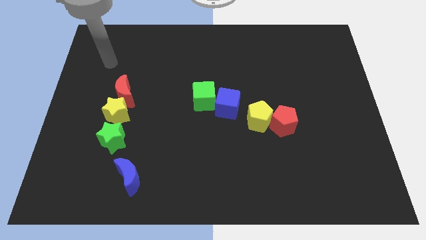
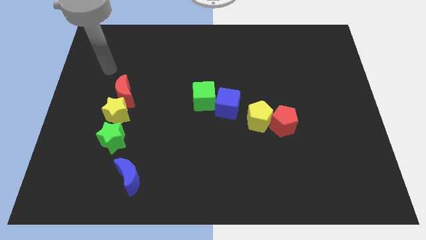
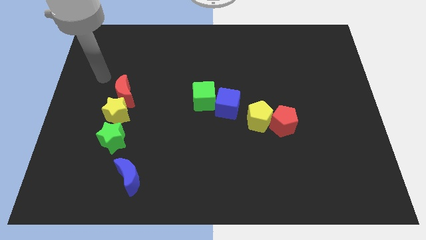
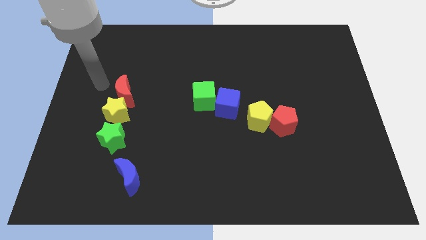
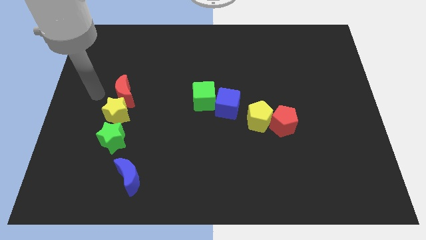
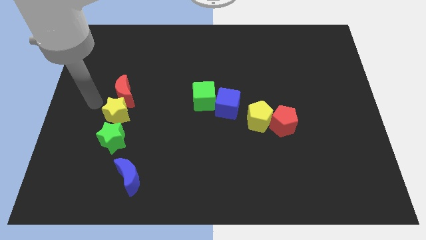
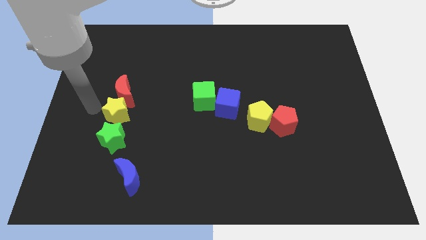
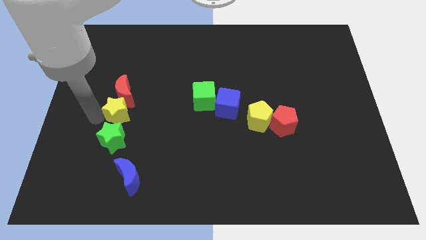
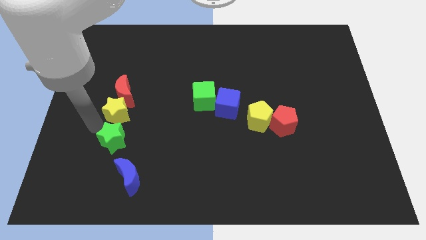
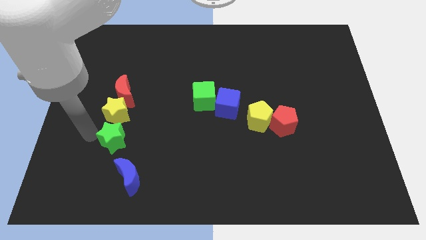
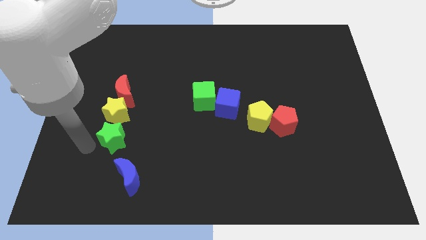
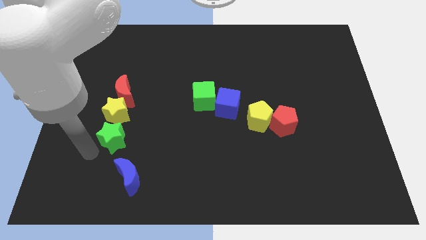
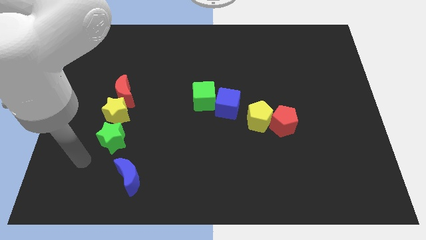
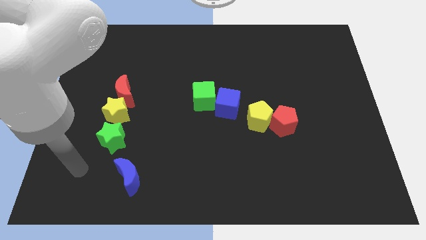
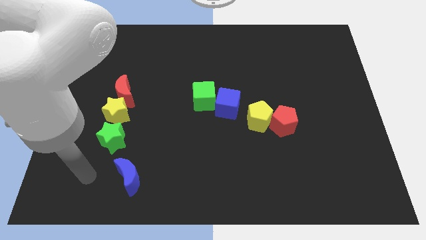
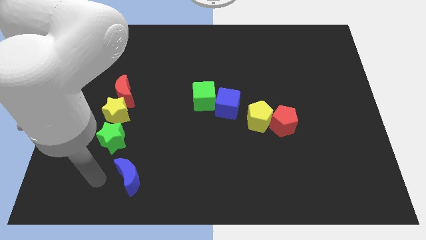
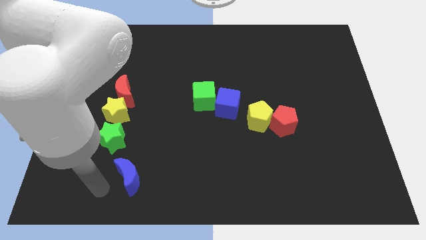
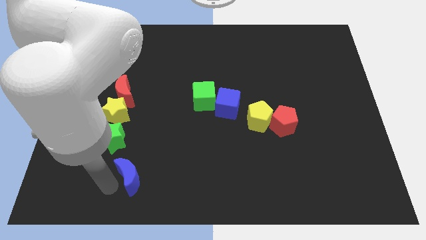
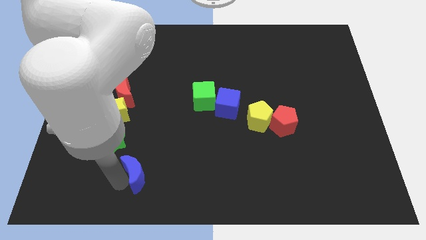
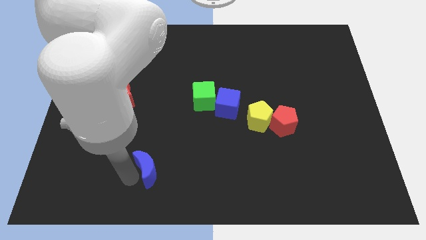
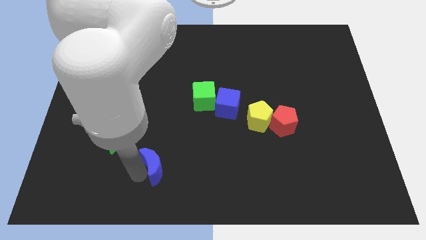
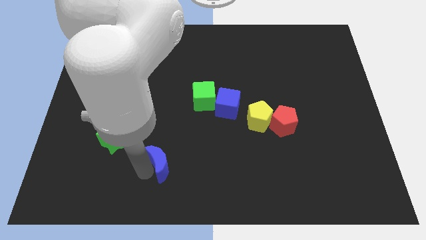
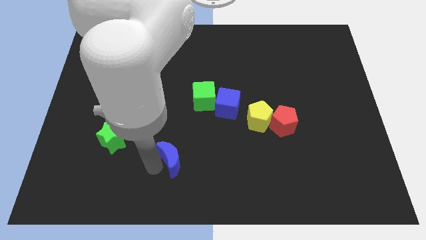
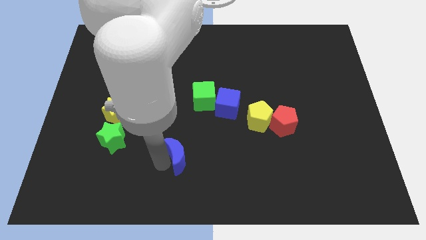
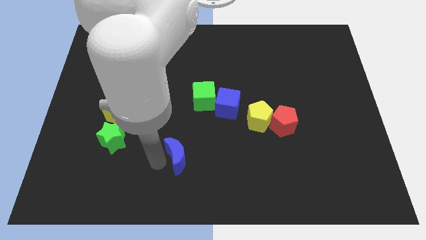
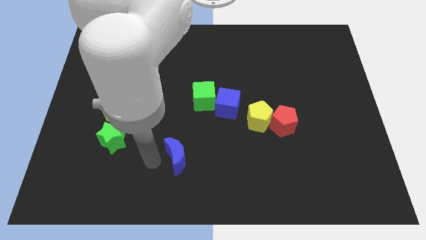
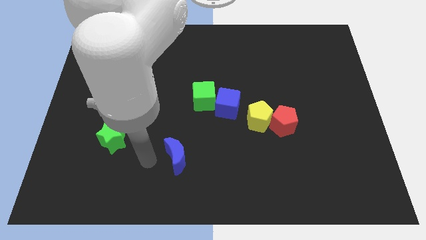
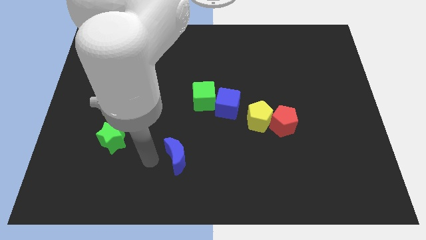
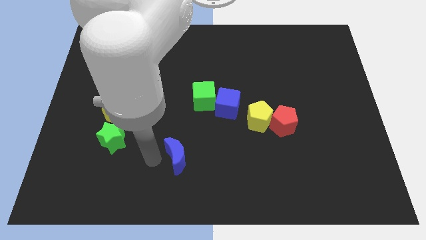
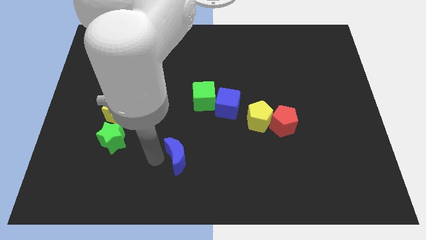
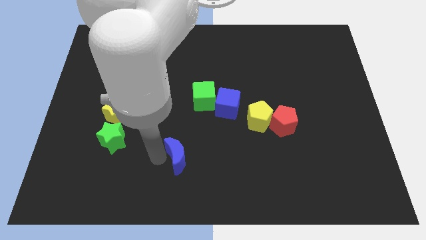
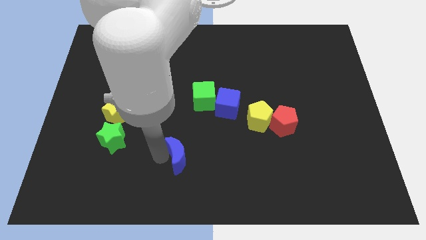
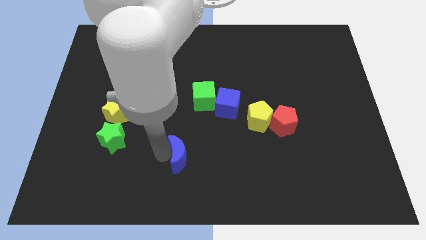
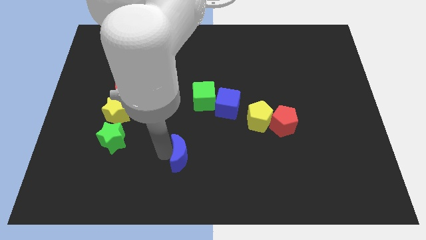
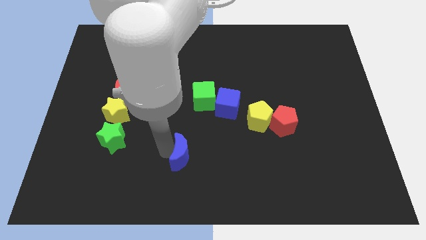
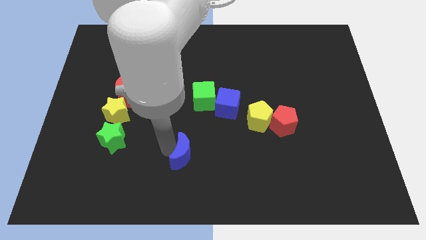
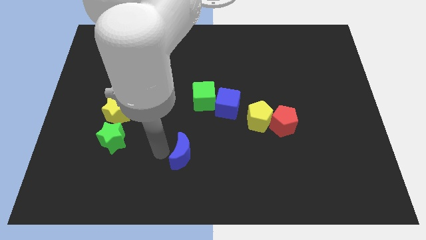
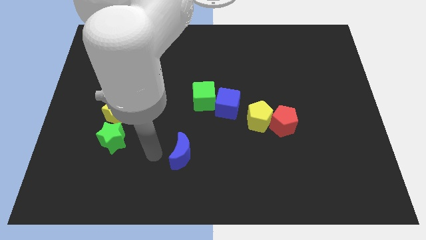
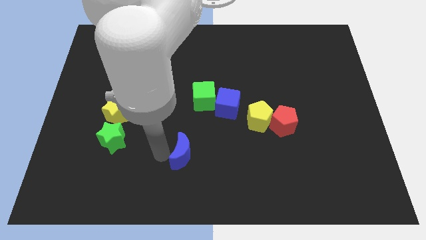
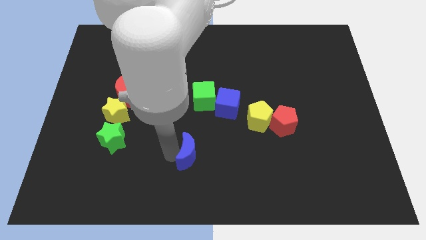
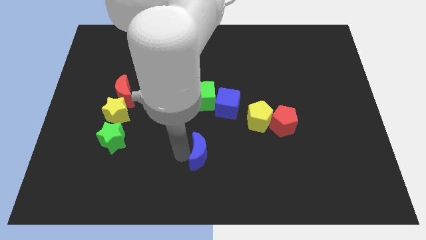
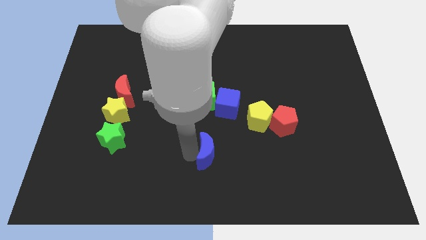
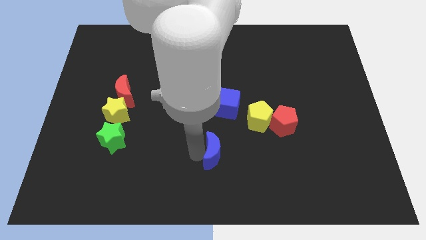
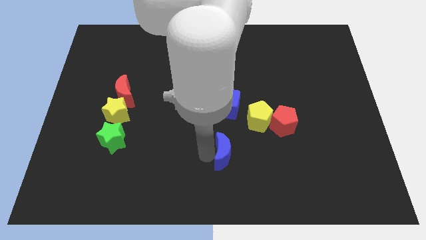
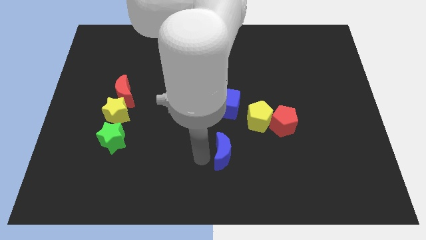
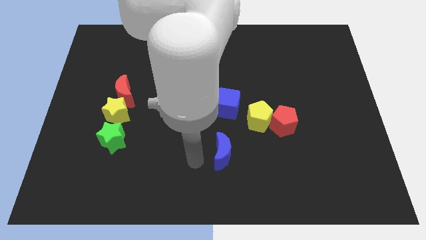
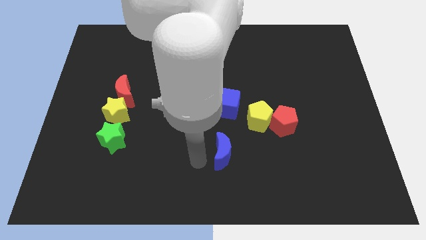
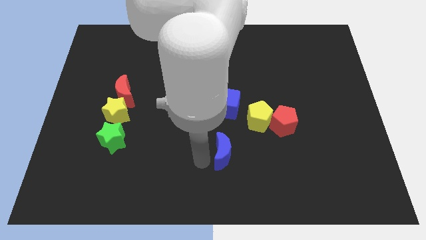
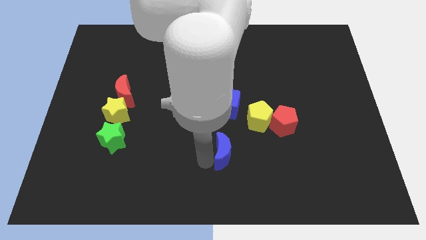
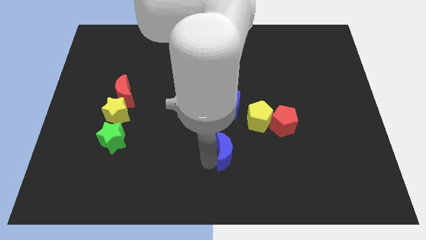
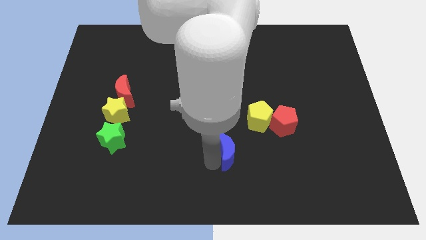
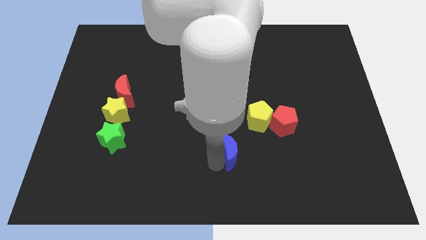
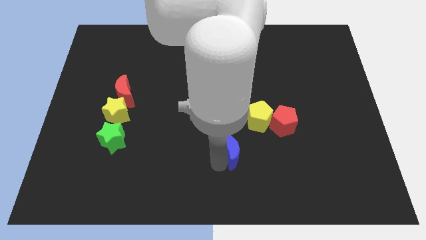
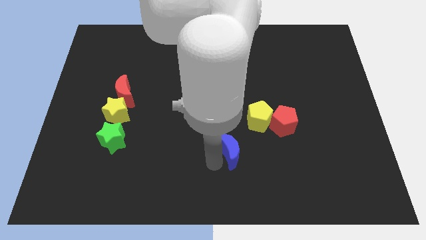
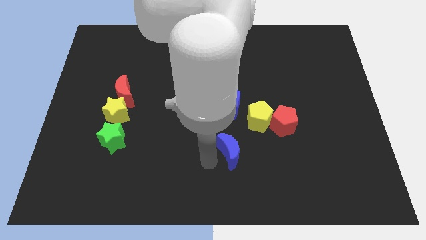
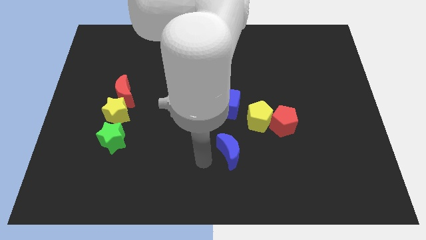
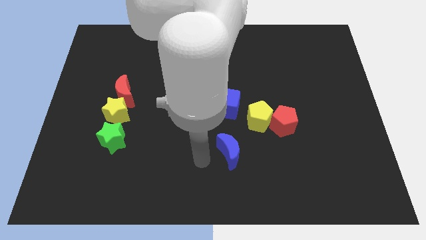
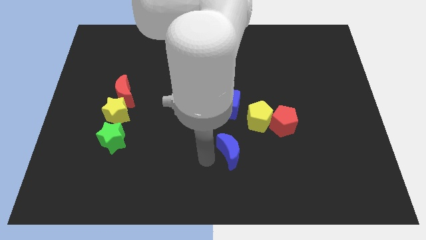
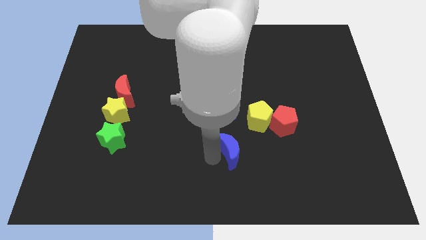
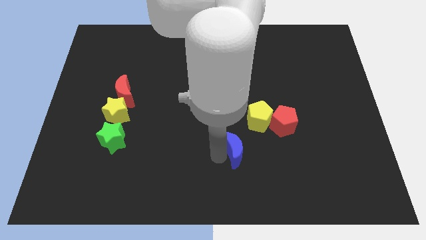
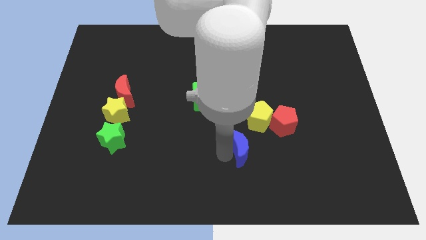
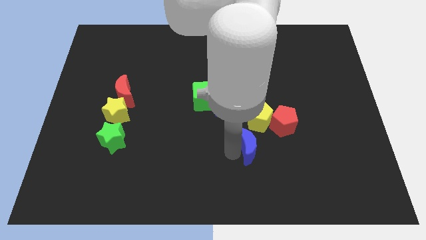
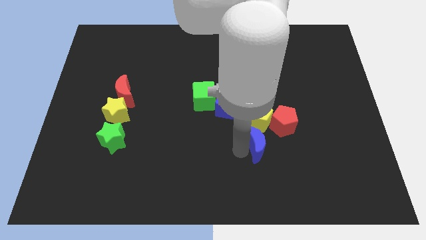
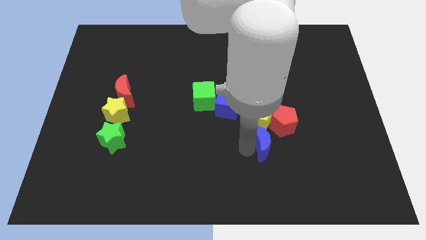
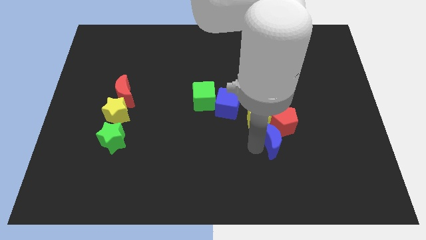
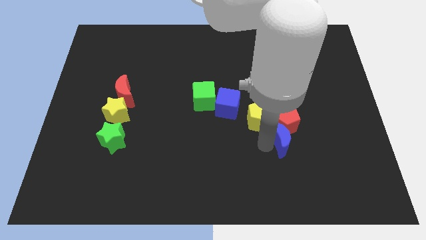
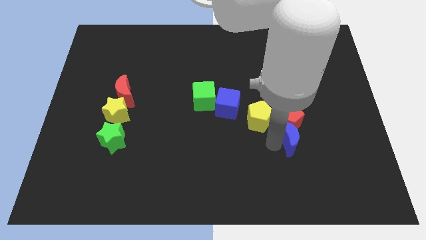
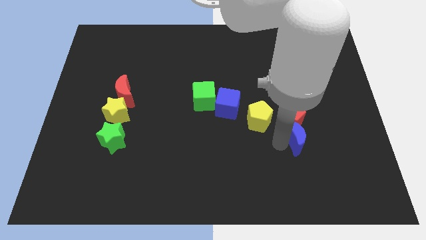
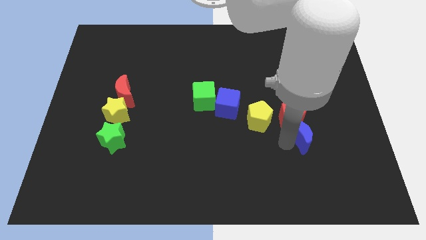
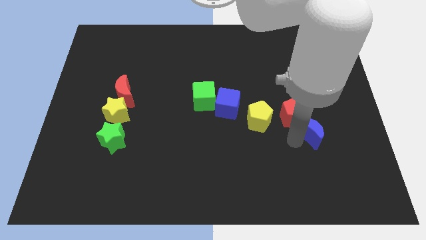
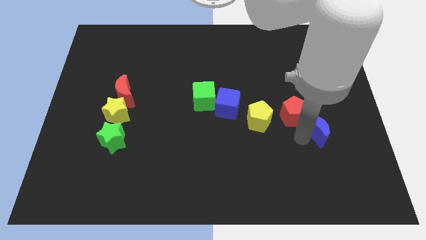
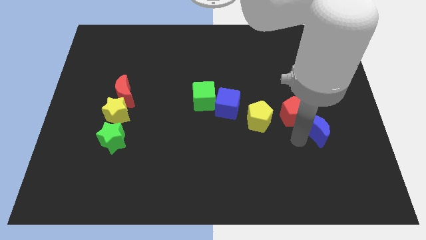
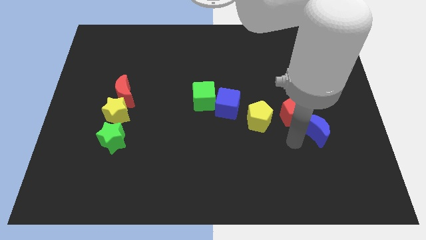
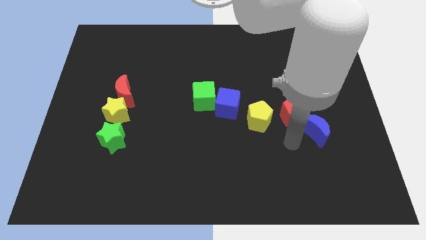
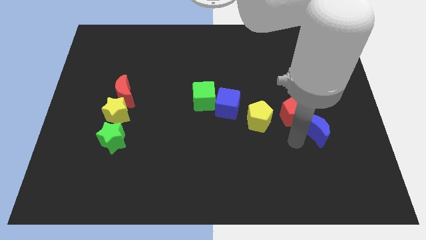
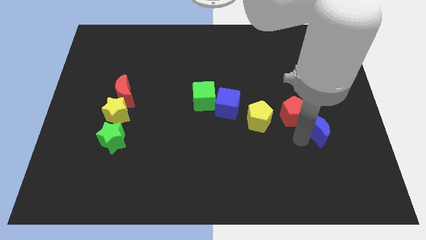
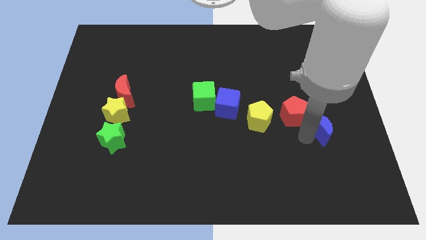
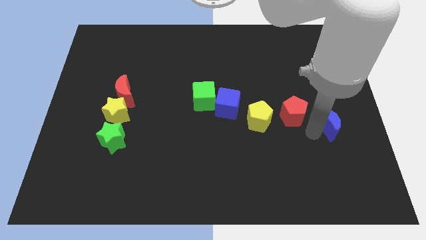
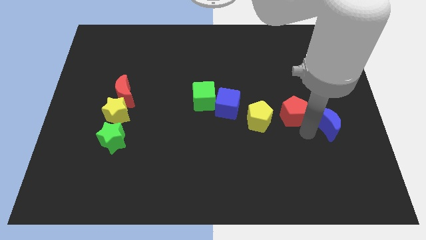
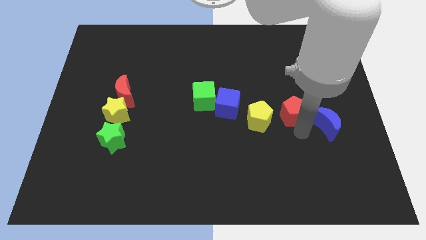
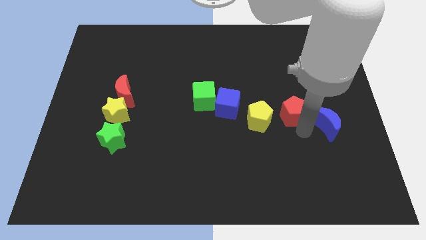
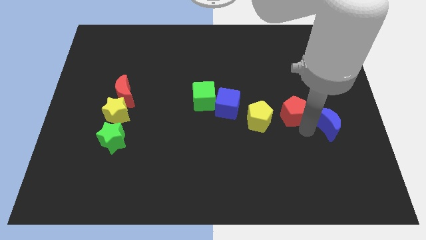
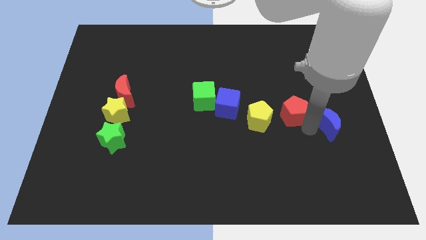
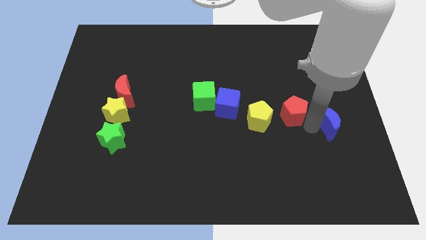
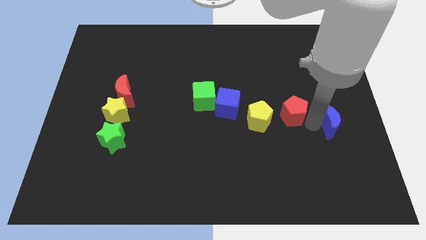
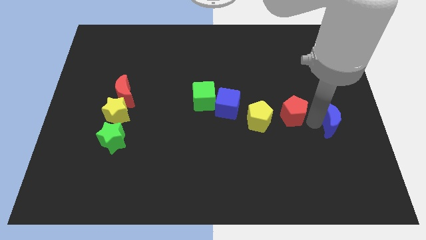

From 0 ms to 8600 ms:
move the blue moon to the right side of the board
